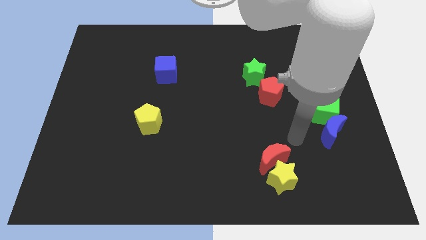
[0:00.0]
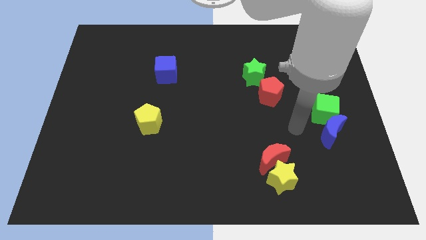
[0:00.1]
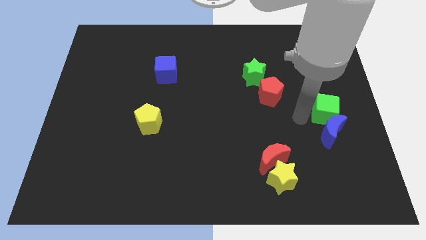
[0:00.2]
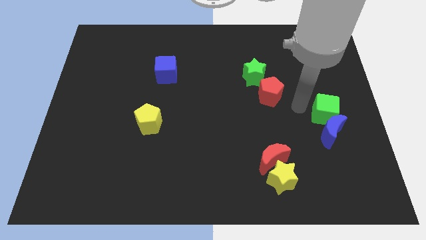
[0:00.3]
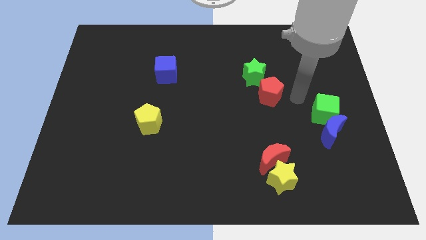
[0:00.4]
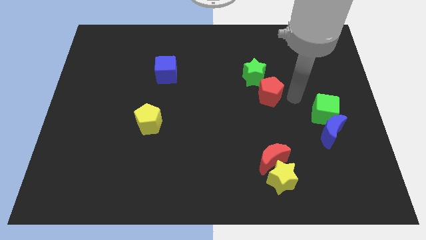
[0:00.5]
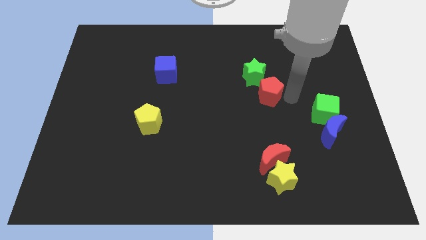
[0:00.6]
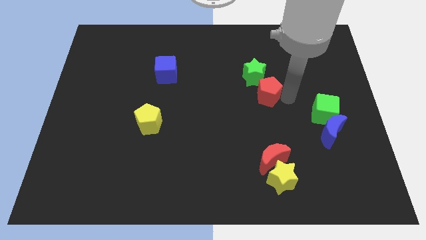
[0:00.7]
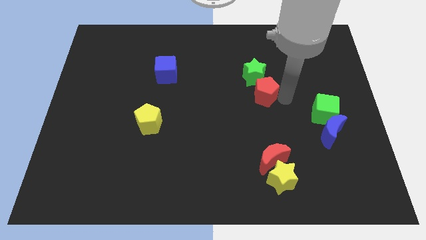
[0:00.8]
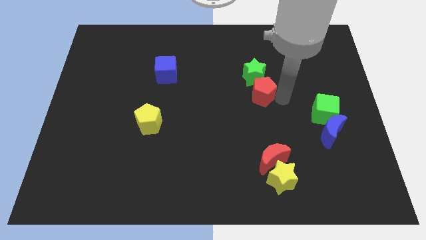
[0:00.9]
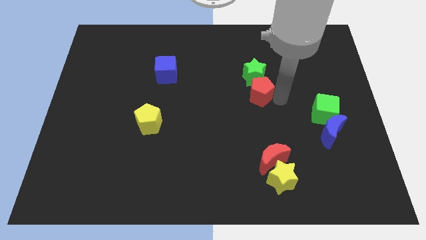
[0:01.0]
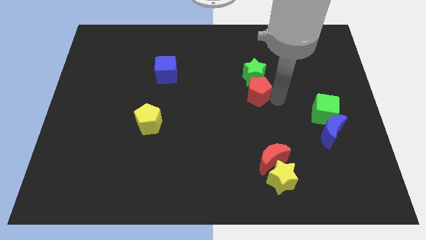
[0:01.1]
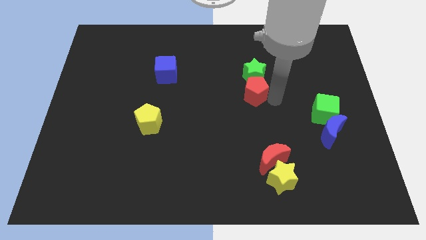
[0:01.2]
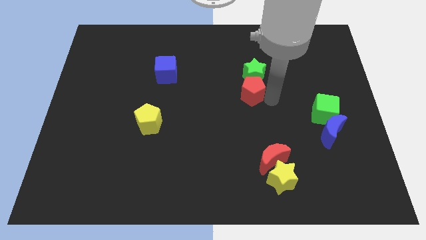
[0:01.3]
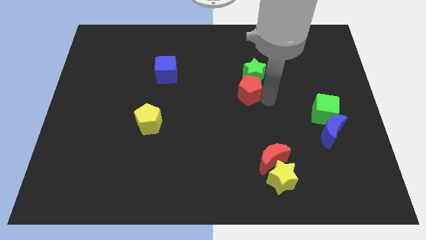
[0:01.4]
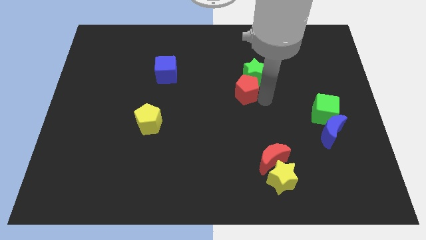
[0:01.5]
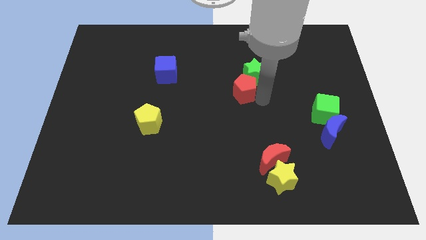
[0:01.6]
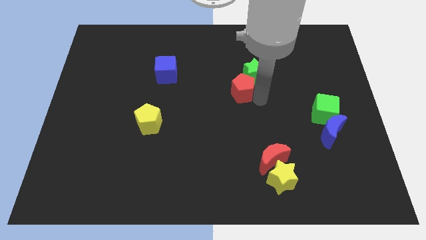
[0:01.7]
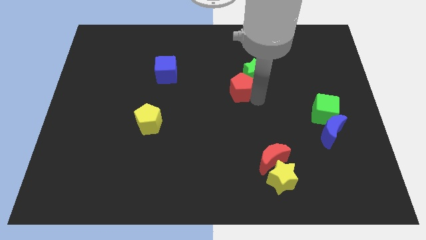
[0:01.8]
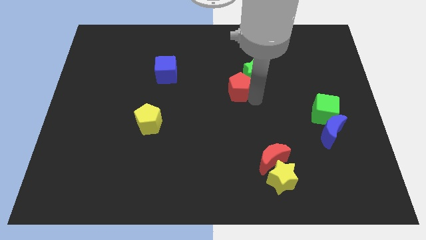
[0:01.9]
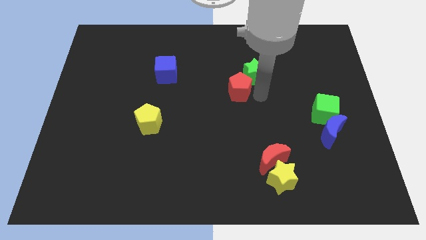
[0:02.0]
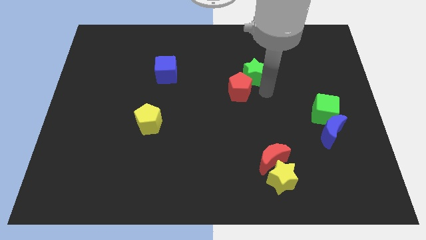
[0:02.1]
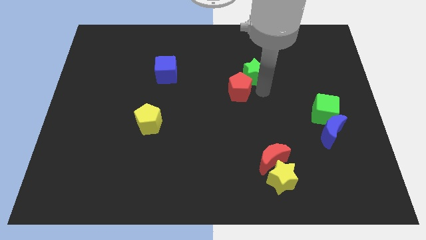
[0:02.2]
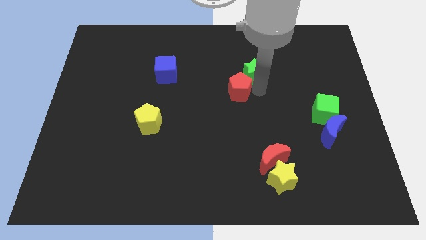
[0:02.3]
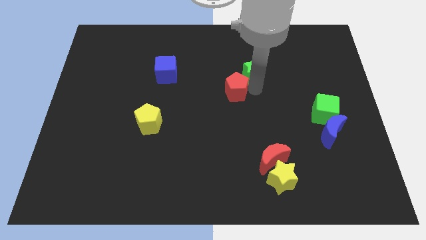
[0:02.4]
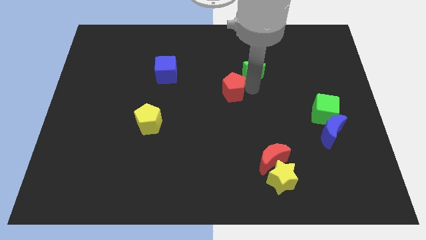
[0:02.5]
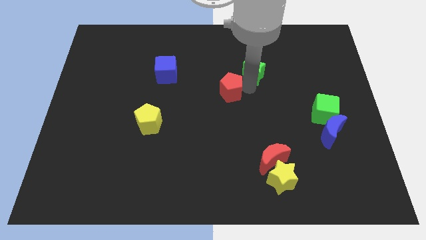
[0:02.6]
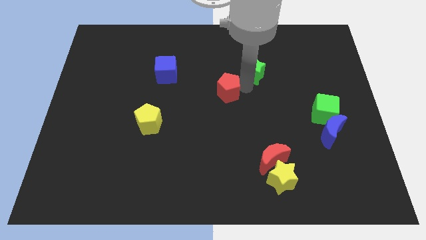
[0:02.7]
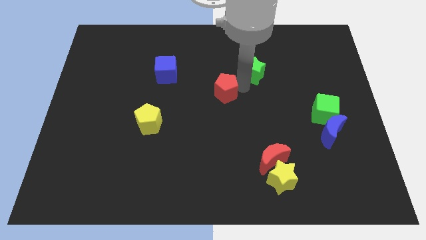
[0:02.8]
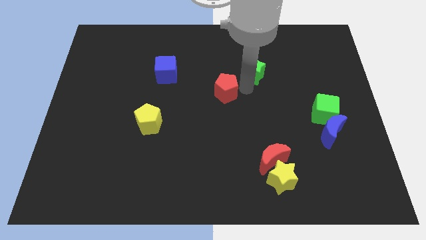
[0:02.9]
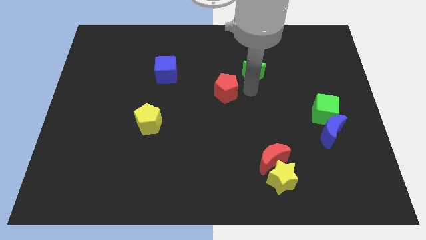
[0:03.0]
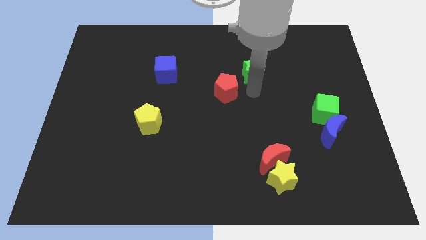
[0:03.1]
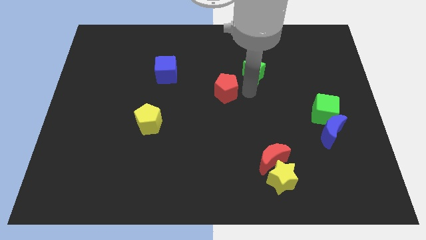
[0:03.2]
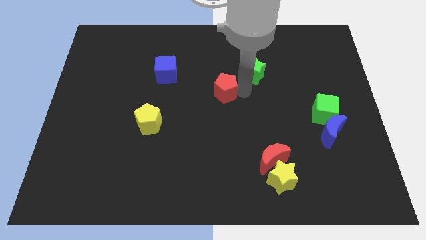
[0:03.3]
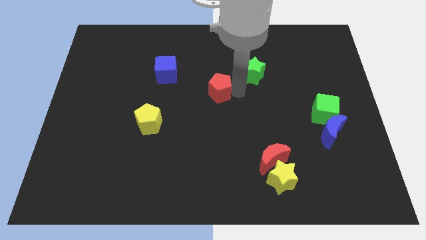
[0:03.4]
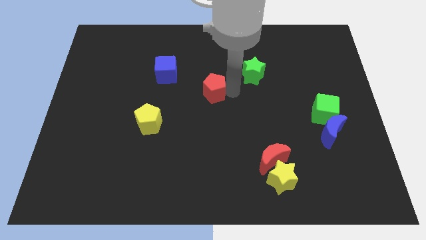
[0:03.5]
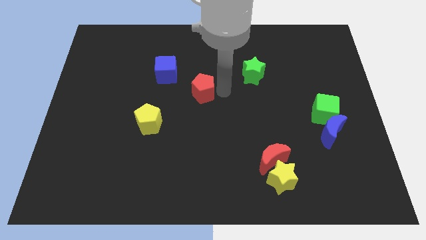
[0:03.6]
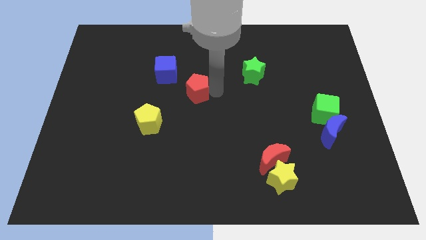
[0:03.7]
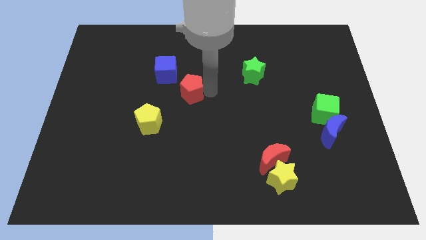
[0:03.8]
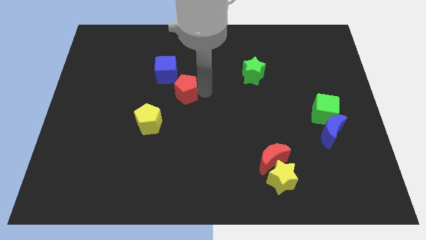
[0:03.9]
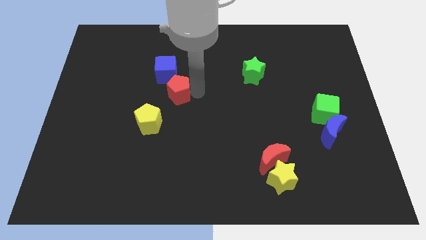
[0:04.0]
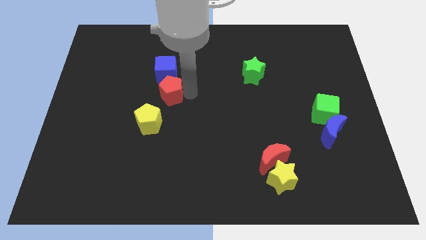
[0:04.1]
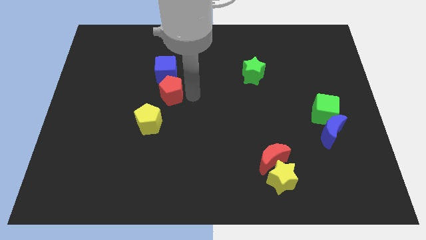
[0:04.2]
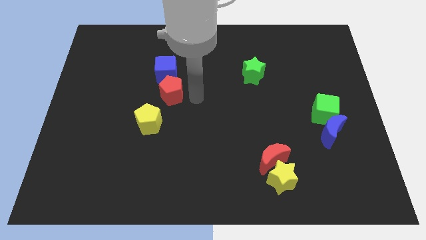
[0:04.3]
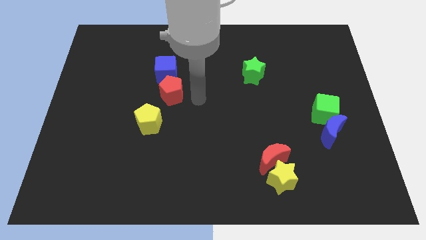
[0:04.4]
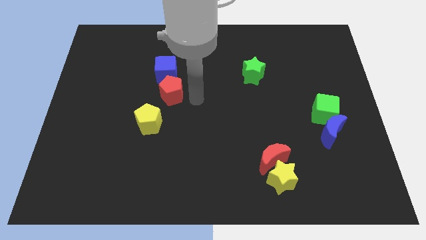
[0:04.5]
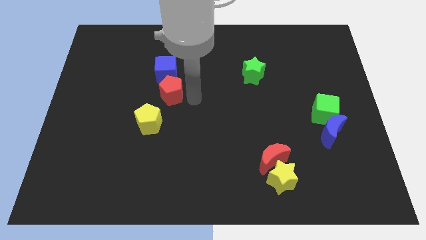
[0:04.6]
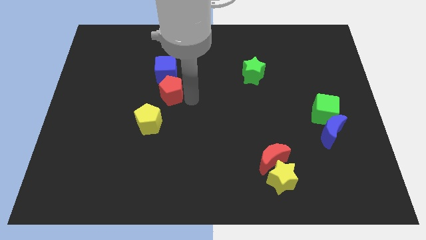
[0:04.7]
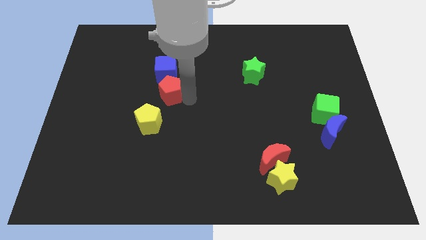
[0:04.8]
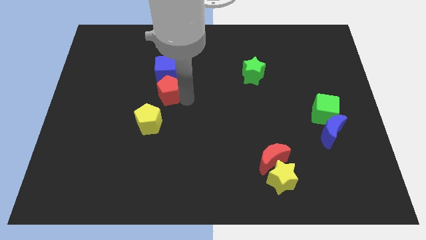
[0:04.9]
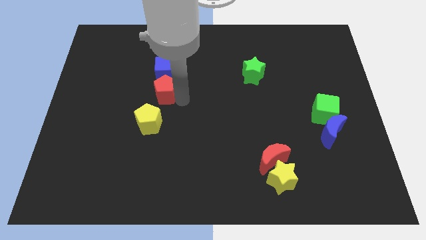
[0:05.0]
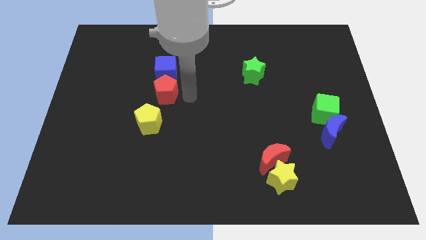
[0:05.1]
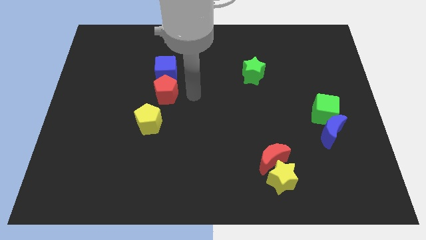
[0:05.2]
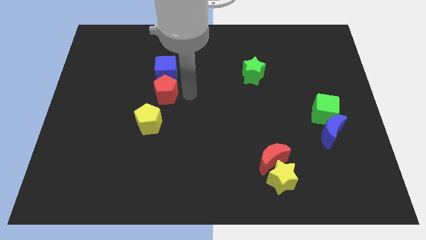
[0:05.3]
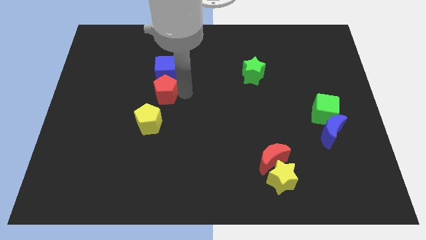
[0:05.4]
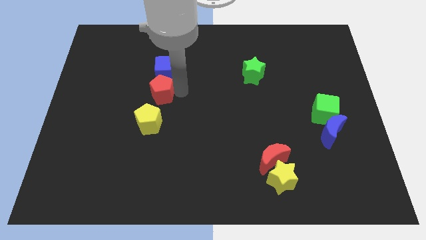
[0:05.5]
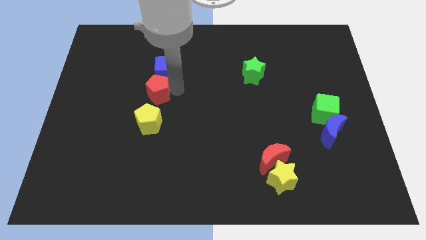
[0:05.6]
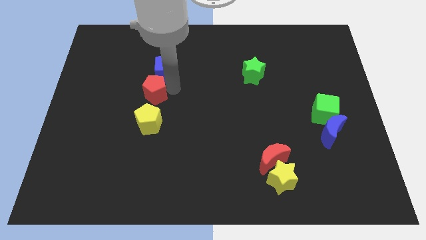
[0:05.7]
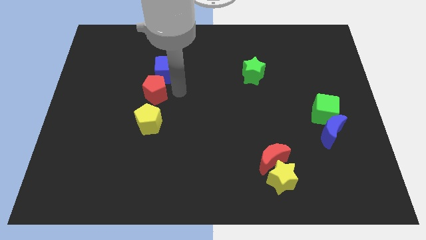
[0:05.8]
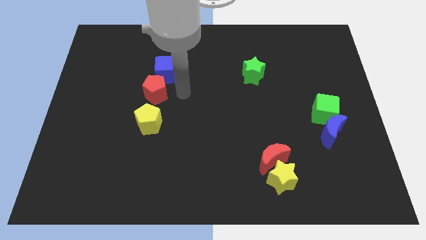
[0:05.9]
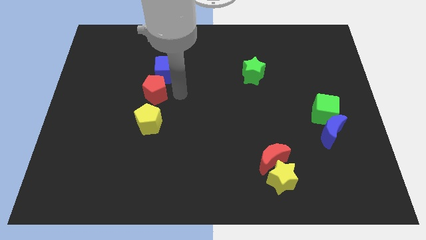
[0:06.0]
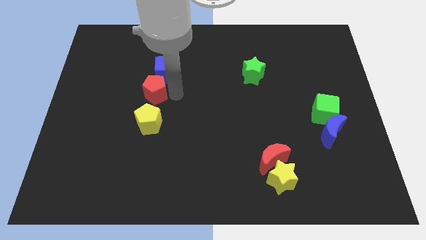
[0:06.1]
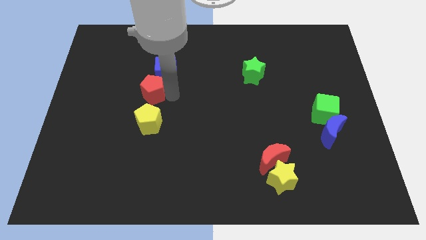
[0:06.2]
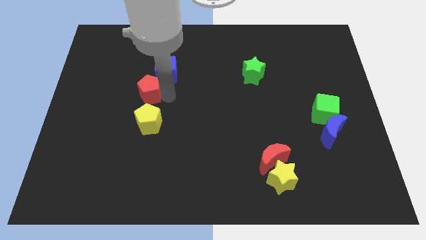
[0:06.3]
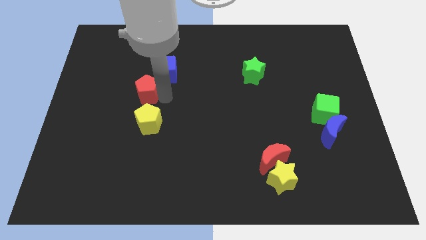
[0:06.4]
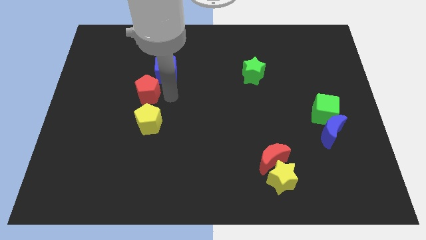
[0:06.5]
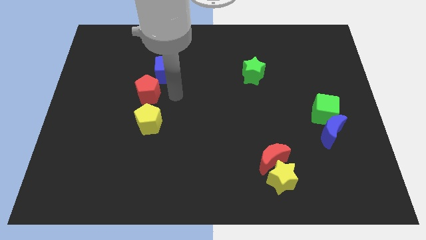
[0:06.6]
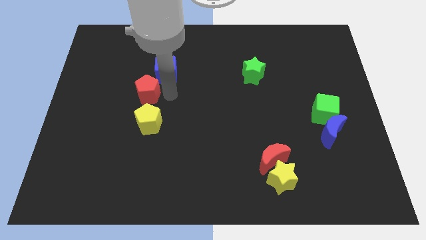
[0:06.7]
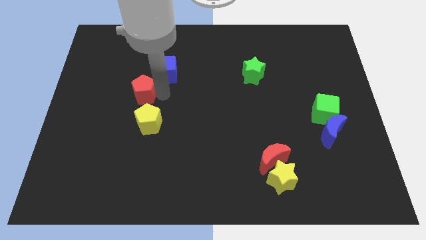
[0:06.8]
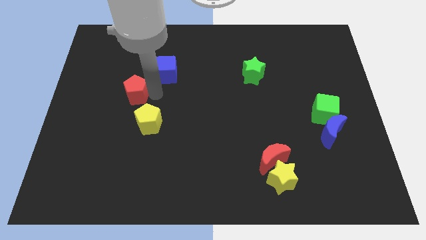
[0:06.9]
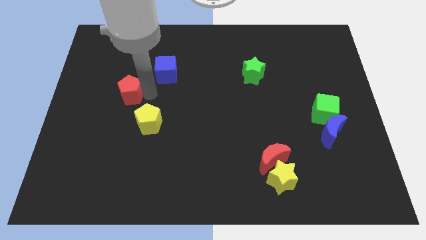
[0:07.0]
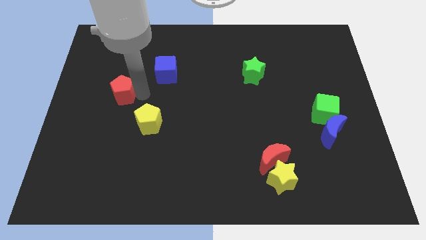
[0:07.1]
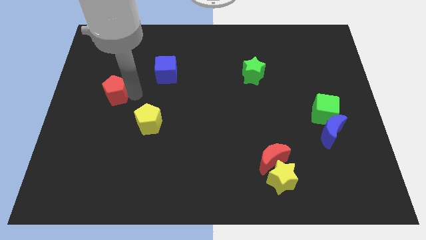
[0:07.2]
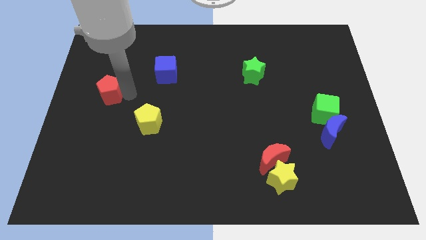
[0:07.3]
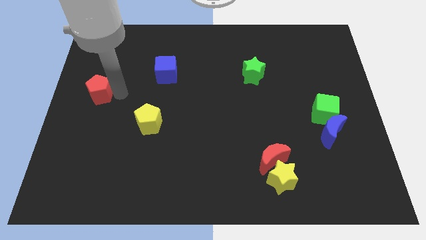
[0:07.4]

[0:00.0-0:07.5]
slide the red pentagon to the left side
